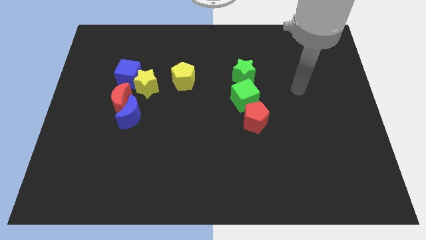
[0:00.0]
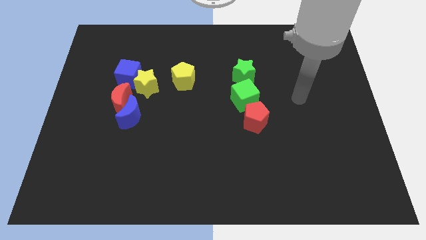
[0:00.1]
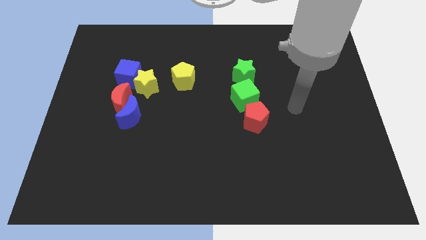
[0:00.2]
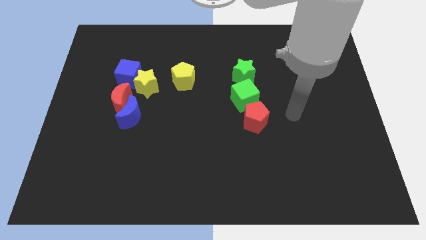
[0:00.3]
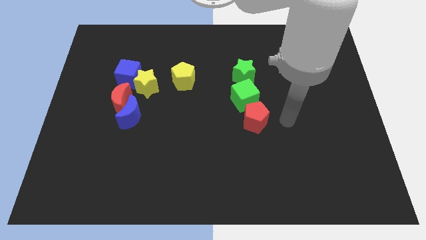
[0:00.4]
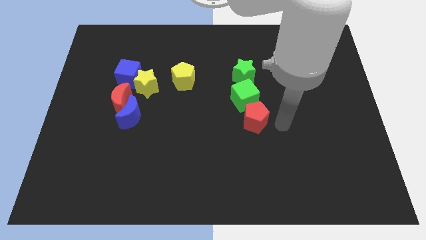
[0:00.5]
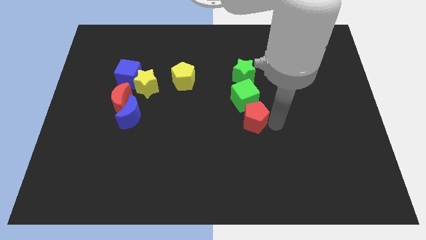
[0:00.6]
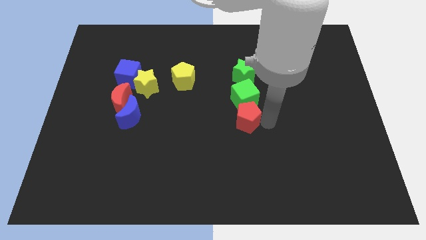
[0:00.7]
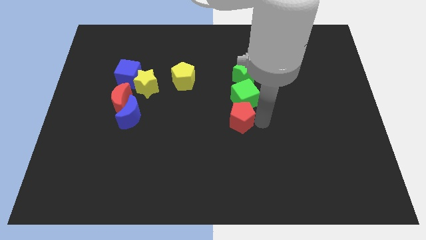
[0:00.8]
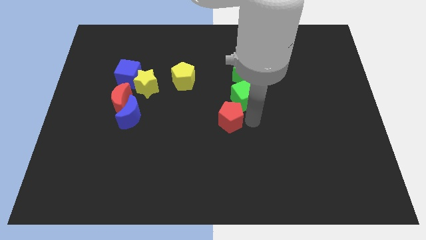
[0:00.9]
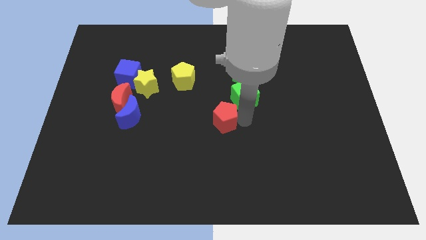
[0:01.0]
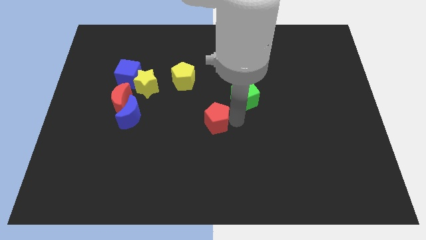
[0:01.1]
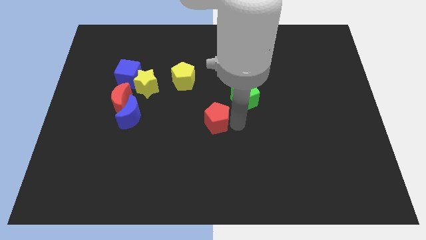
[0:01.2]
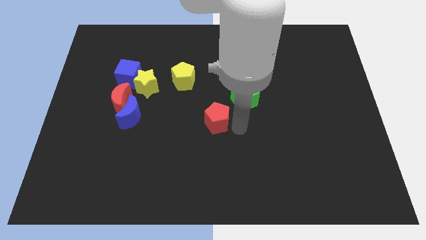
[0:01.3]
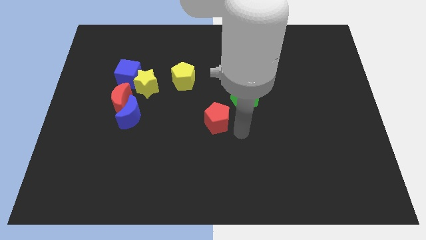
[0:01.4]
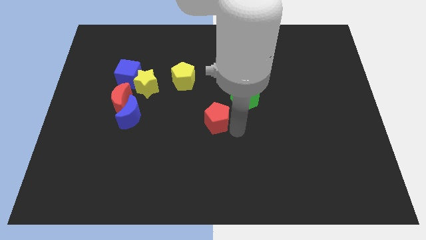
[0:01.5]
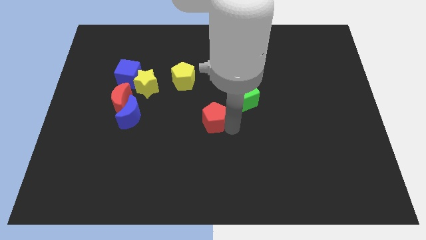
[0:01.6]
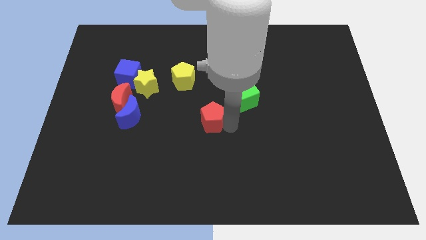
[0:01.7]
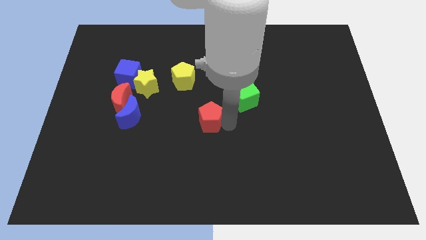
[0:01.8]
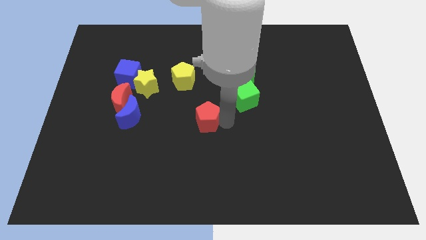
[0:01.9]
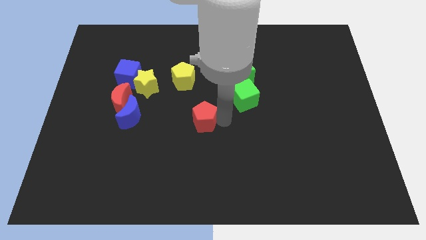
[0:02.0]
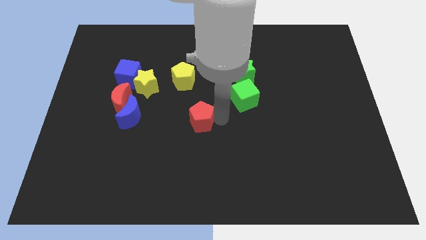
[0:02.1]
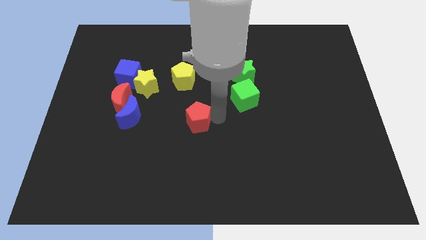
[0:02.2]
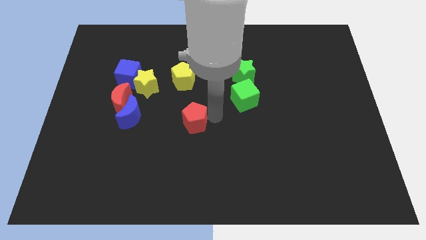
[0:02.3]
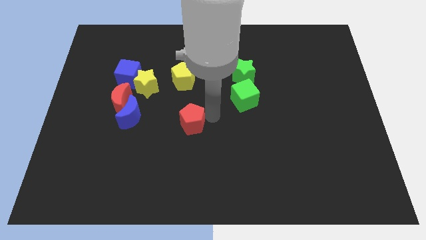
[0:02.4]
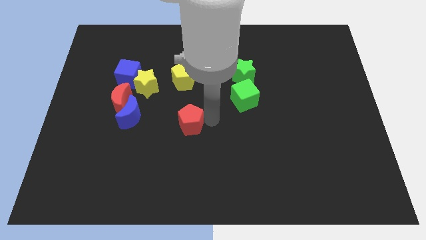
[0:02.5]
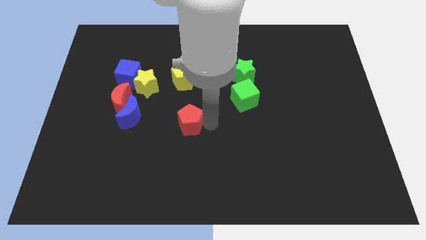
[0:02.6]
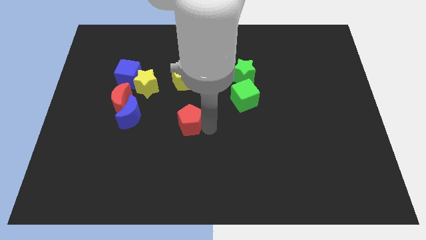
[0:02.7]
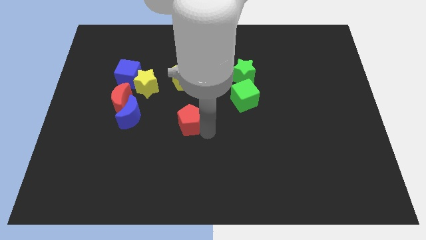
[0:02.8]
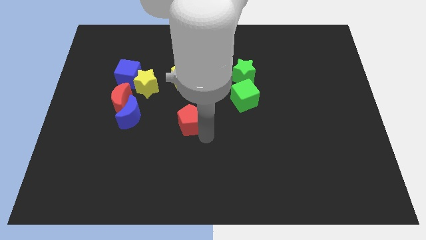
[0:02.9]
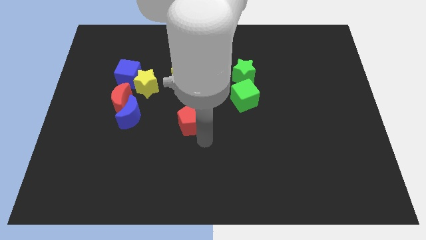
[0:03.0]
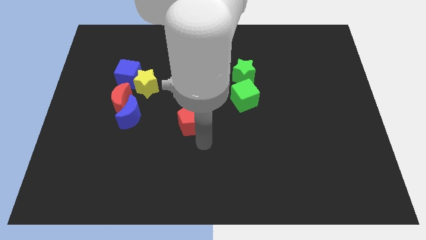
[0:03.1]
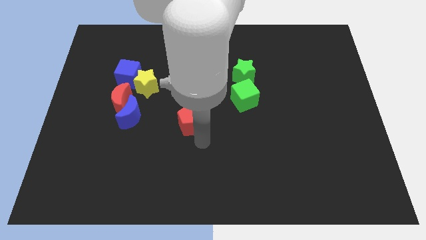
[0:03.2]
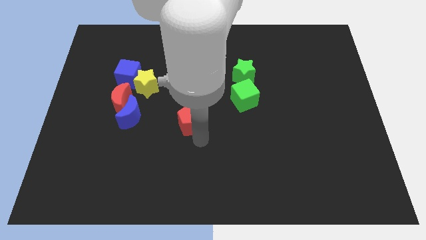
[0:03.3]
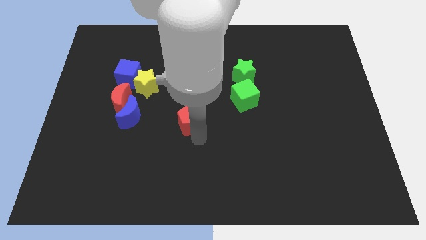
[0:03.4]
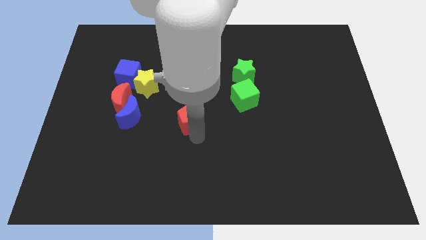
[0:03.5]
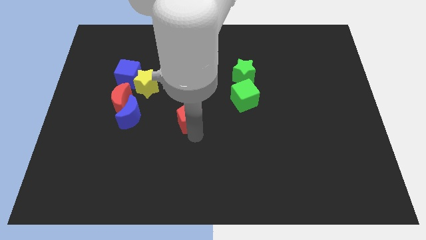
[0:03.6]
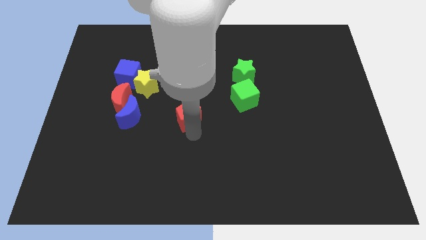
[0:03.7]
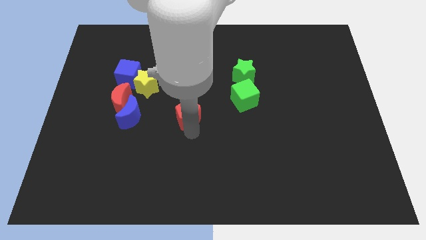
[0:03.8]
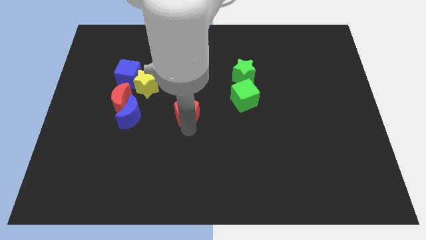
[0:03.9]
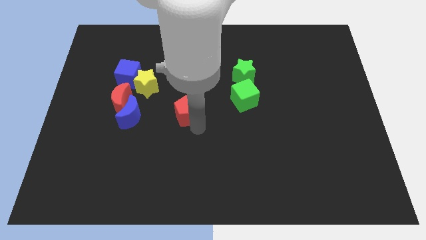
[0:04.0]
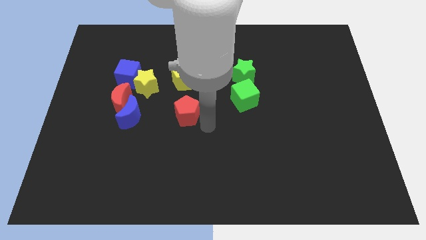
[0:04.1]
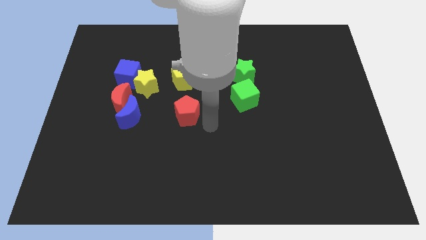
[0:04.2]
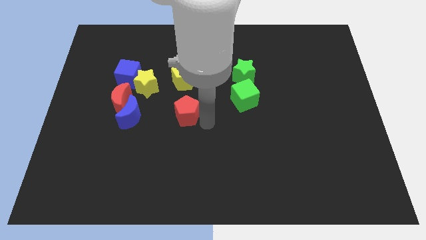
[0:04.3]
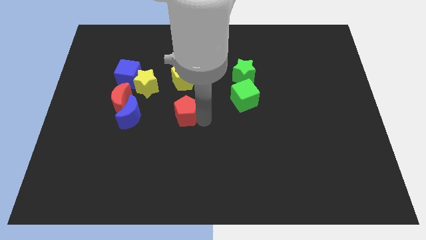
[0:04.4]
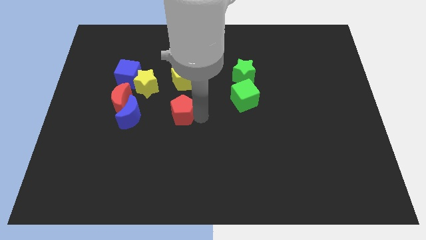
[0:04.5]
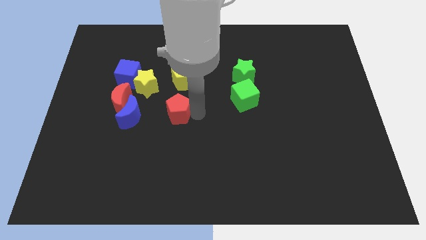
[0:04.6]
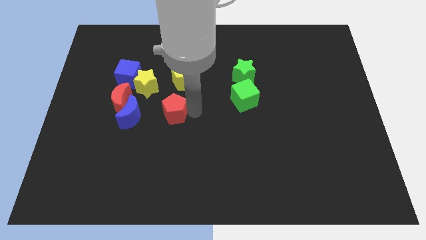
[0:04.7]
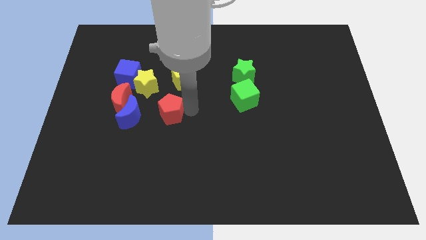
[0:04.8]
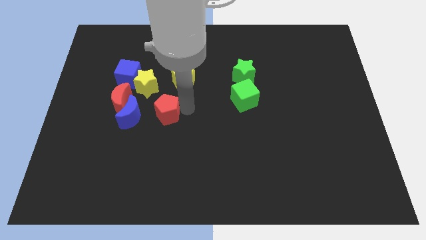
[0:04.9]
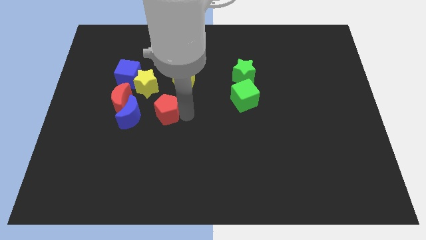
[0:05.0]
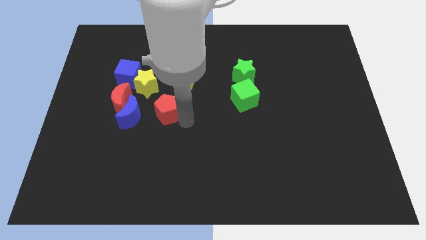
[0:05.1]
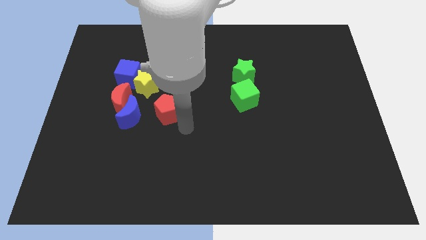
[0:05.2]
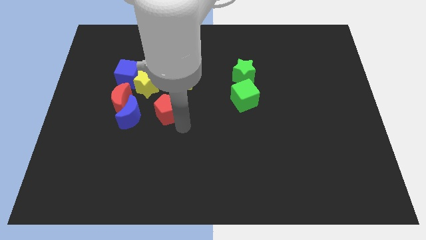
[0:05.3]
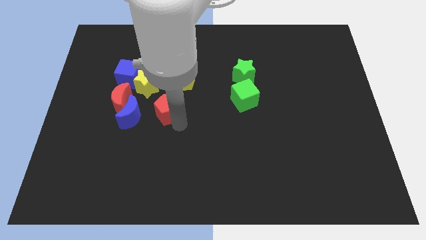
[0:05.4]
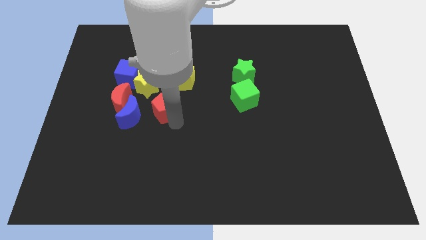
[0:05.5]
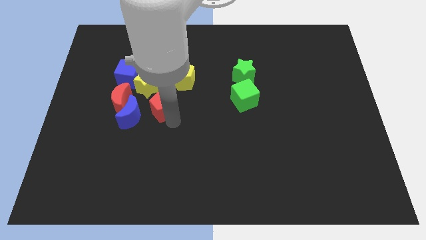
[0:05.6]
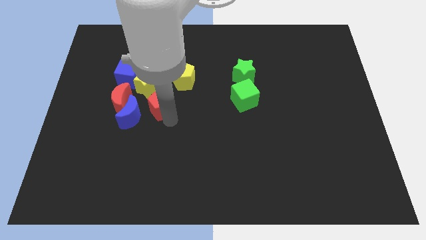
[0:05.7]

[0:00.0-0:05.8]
put the red pentagon to the bottom right side of the blue cube

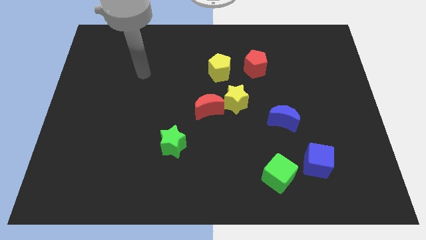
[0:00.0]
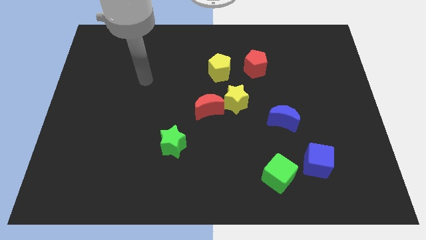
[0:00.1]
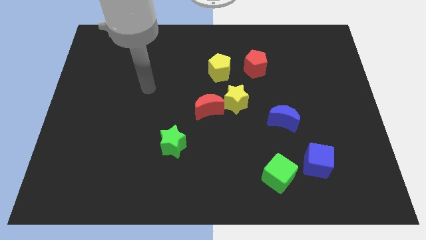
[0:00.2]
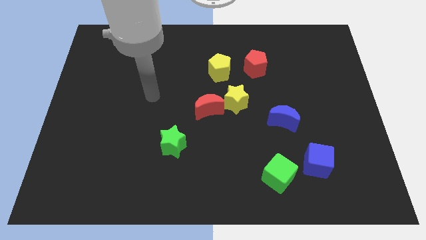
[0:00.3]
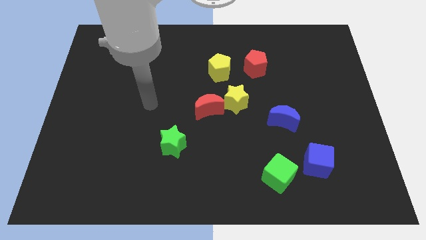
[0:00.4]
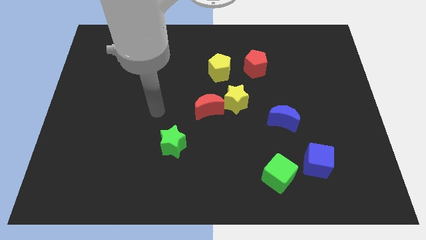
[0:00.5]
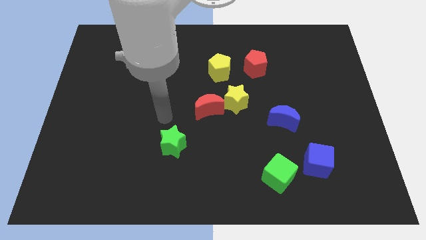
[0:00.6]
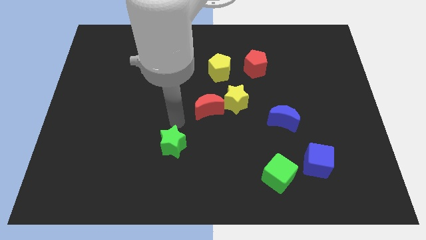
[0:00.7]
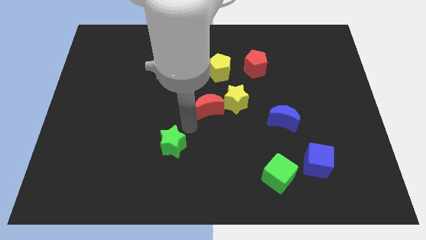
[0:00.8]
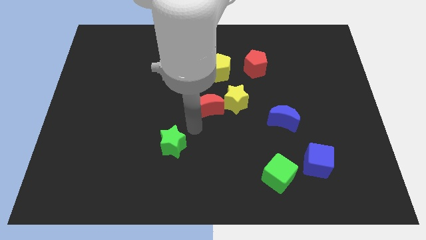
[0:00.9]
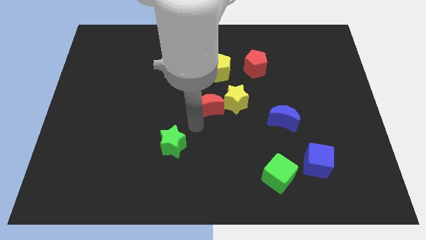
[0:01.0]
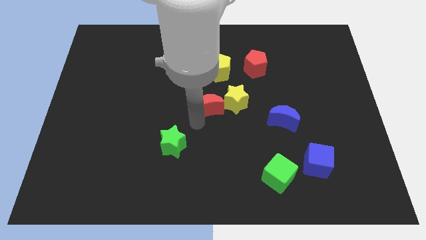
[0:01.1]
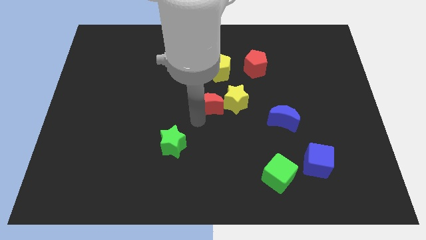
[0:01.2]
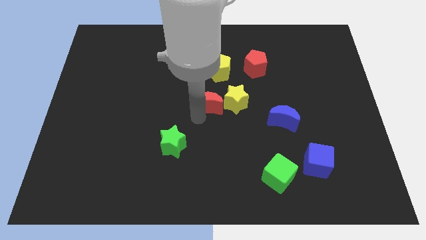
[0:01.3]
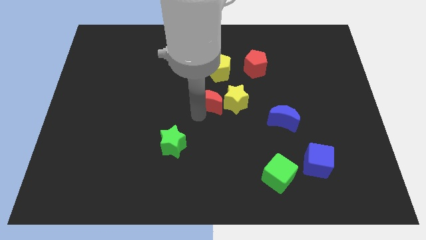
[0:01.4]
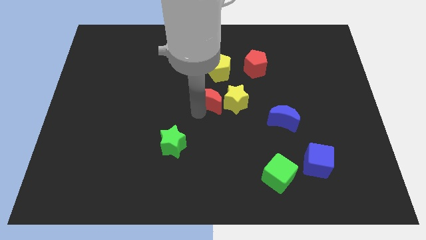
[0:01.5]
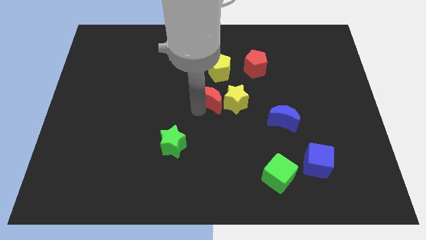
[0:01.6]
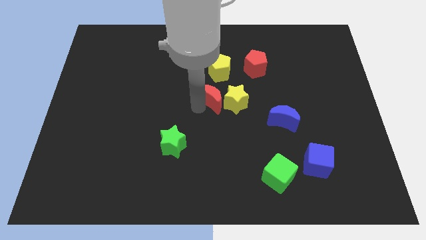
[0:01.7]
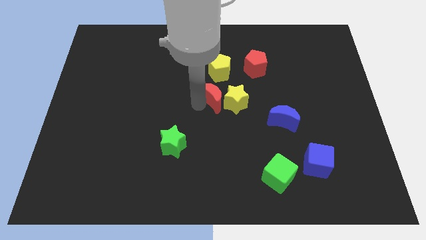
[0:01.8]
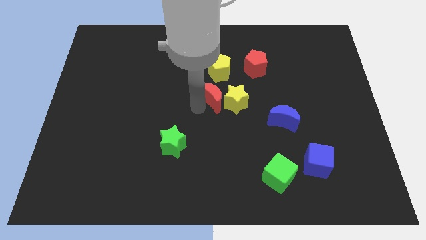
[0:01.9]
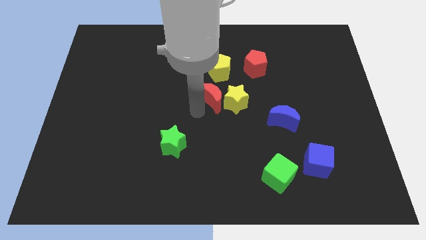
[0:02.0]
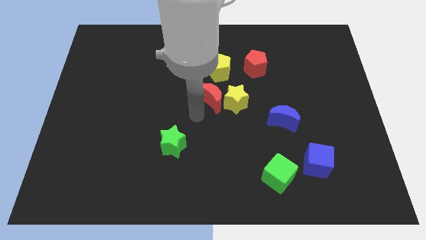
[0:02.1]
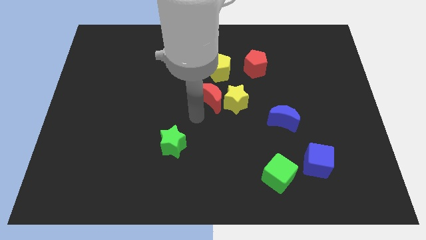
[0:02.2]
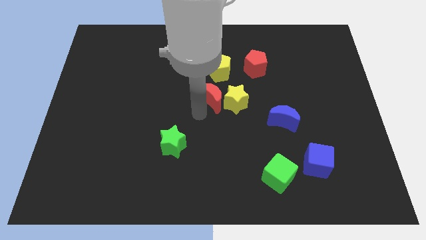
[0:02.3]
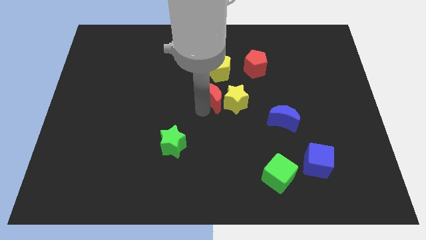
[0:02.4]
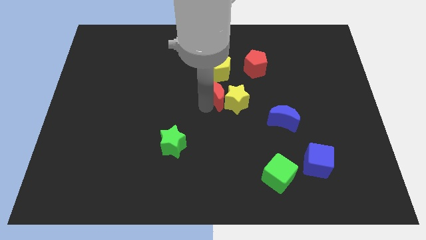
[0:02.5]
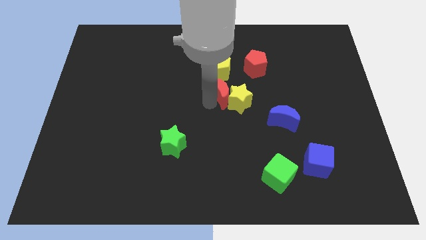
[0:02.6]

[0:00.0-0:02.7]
move the red moon diagonally down and to the left of the red pentagon
